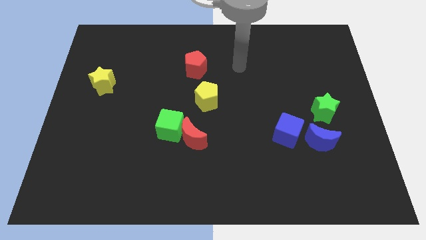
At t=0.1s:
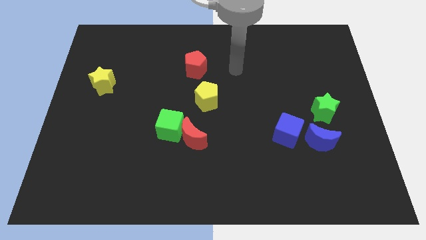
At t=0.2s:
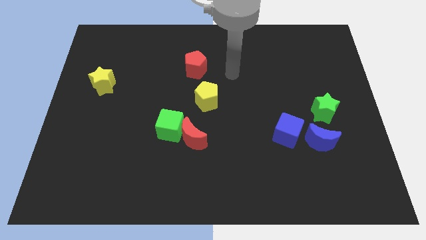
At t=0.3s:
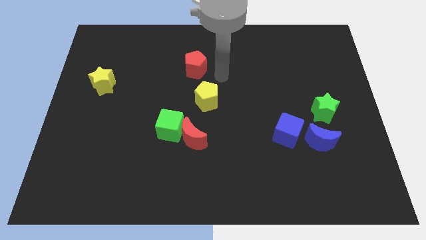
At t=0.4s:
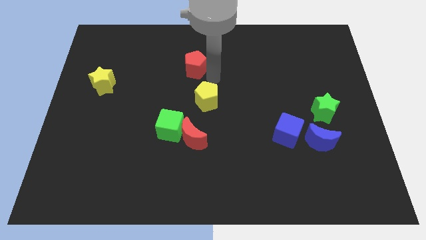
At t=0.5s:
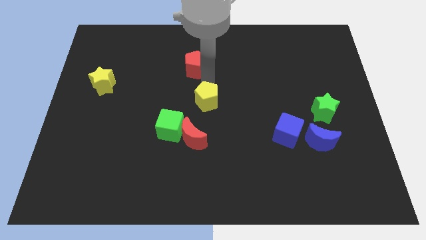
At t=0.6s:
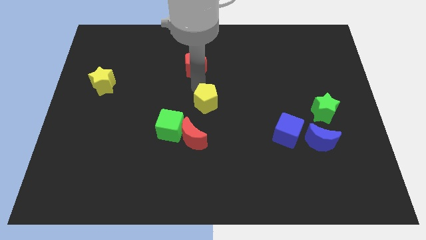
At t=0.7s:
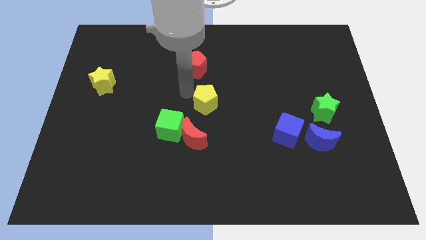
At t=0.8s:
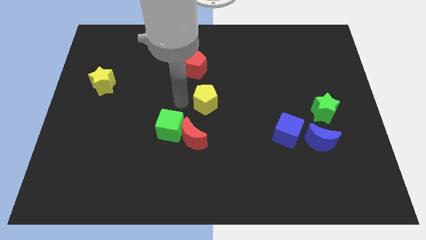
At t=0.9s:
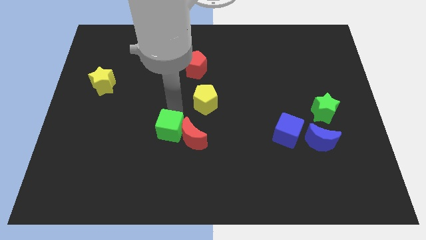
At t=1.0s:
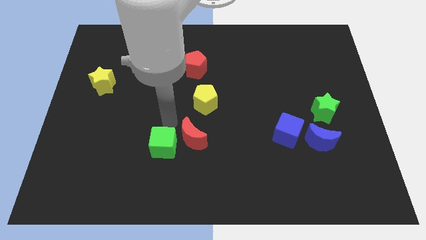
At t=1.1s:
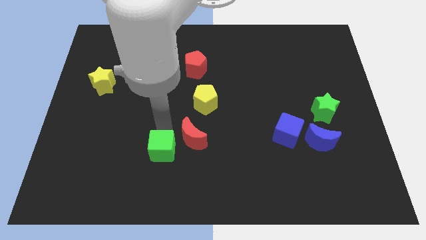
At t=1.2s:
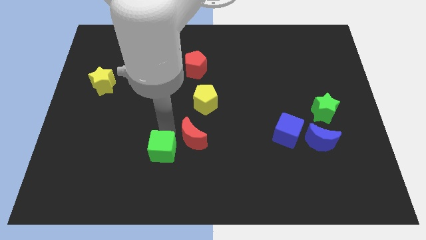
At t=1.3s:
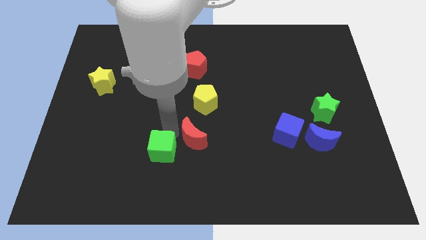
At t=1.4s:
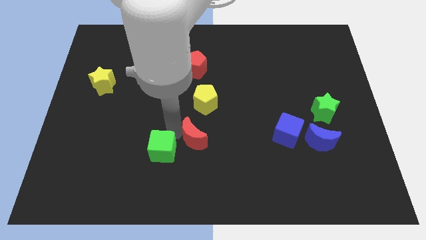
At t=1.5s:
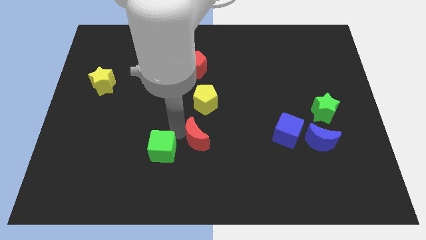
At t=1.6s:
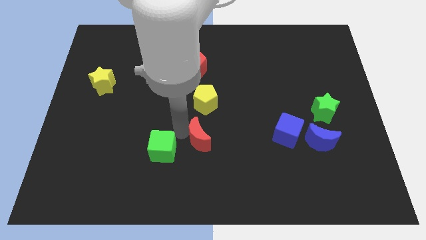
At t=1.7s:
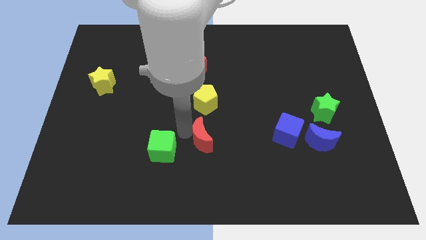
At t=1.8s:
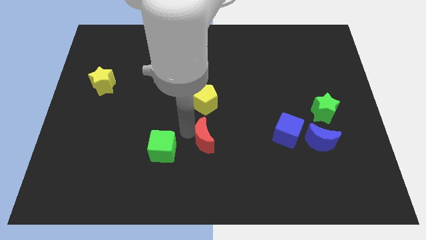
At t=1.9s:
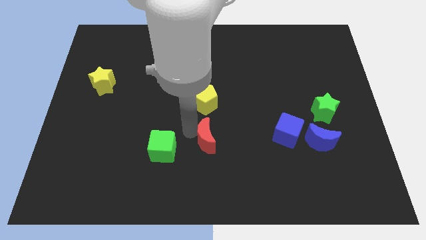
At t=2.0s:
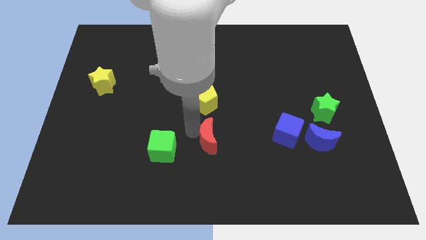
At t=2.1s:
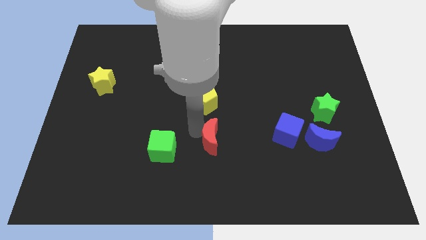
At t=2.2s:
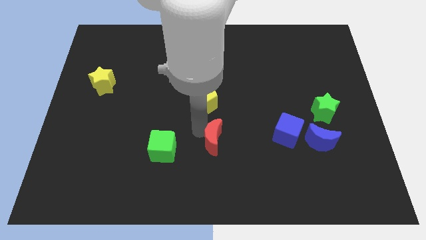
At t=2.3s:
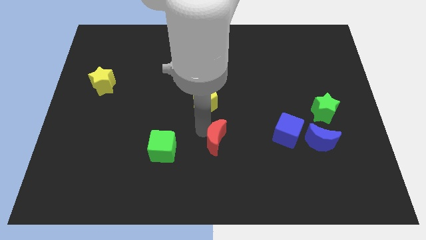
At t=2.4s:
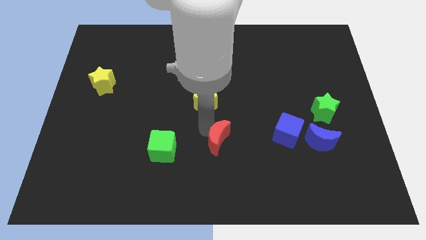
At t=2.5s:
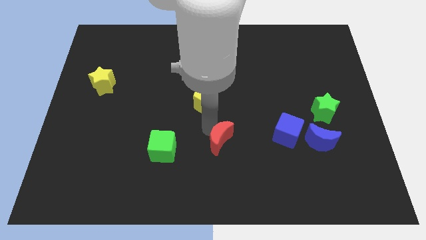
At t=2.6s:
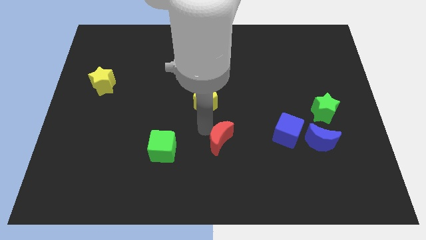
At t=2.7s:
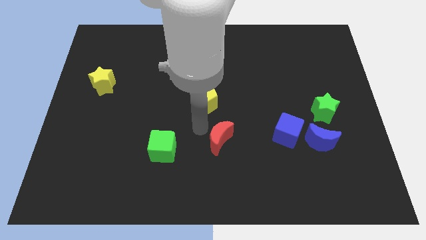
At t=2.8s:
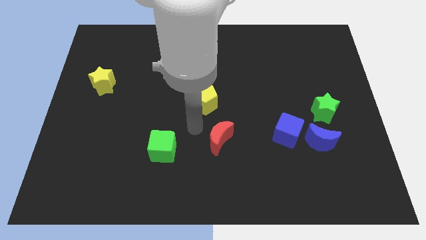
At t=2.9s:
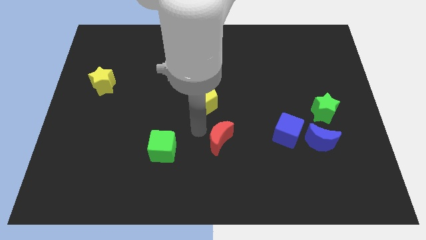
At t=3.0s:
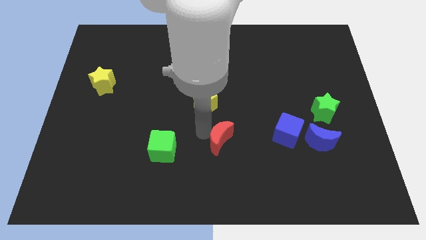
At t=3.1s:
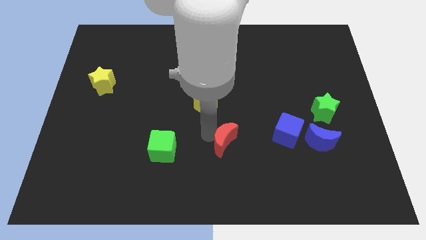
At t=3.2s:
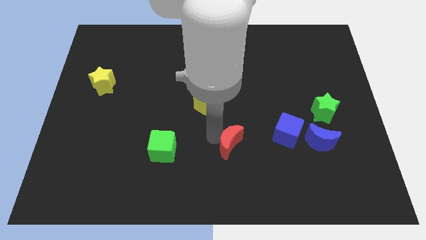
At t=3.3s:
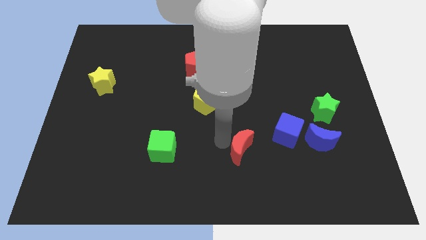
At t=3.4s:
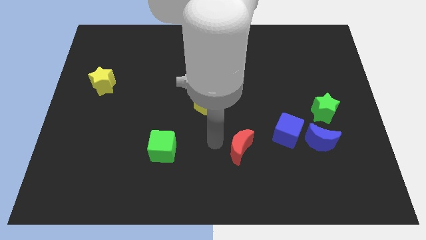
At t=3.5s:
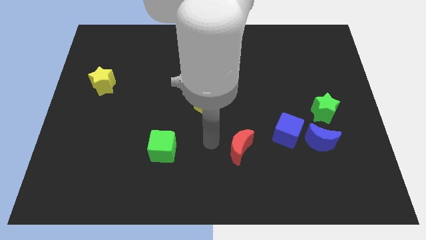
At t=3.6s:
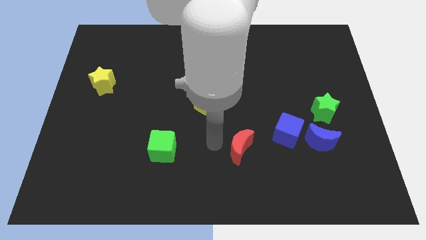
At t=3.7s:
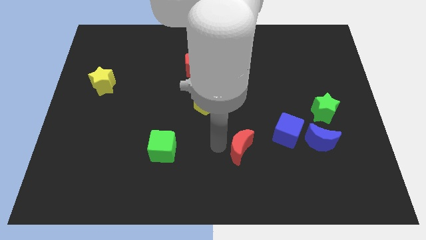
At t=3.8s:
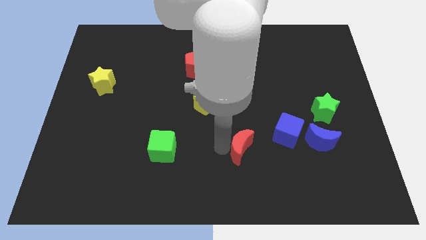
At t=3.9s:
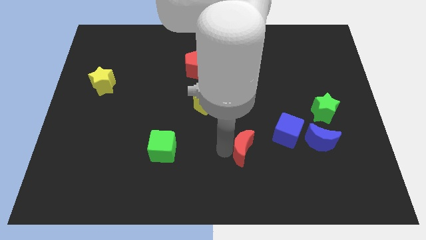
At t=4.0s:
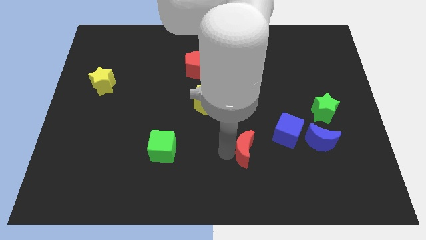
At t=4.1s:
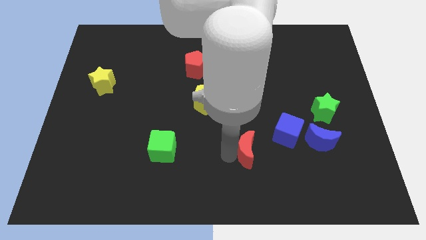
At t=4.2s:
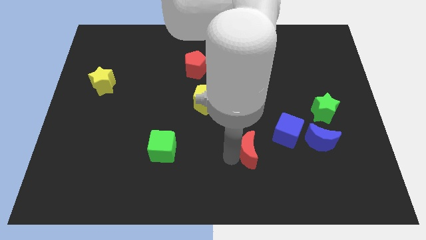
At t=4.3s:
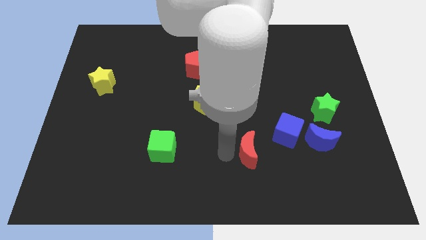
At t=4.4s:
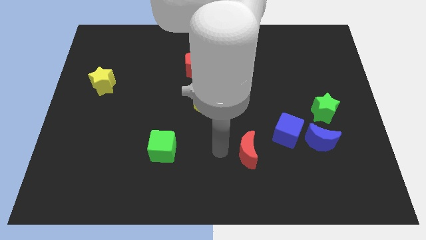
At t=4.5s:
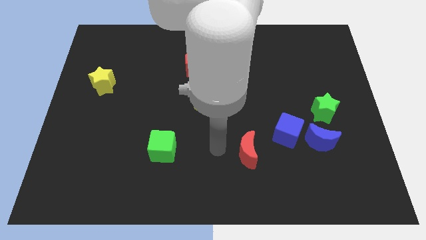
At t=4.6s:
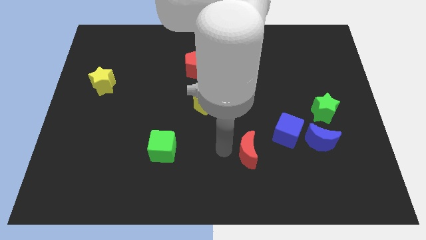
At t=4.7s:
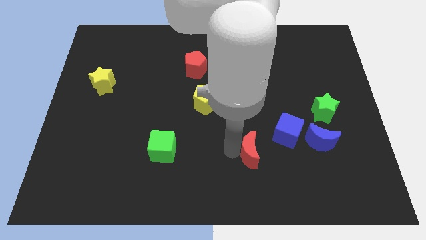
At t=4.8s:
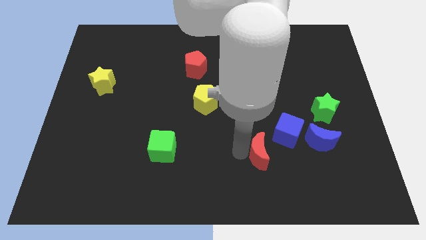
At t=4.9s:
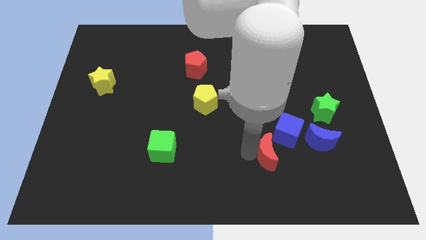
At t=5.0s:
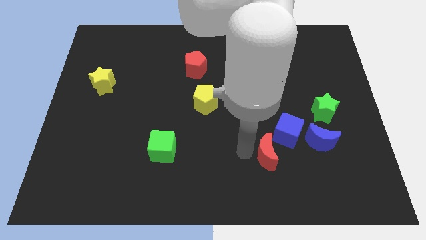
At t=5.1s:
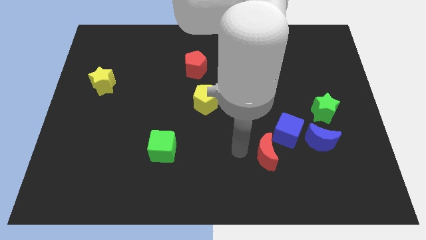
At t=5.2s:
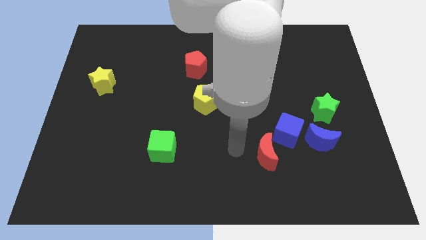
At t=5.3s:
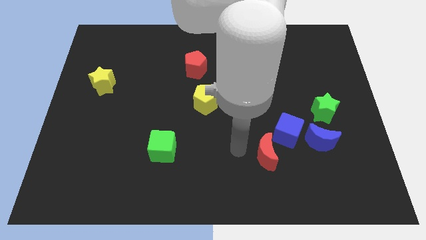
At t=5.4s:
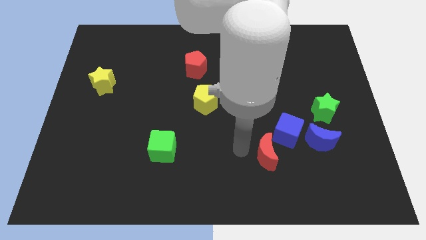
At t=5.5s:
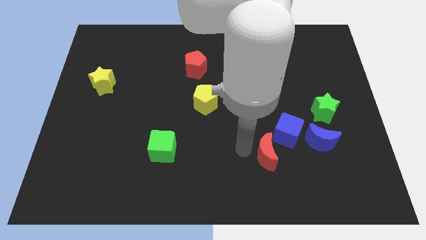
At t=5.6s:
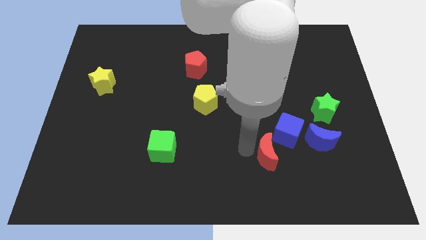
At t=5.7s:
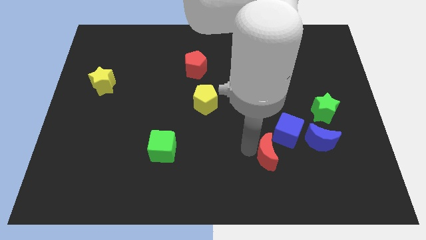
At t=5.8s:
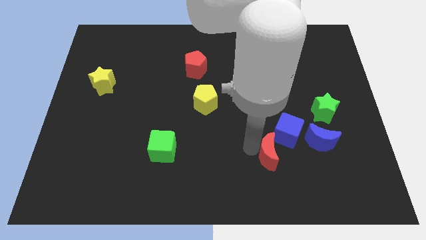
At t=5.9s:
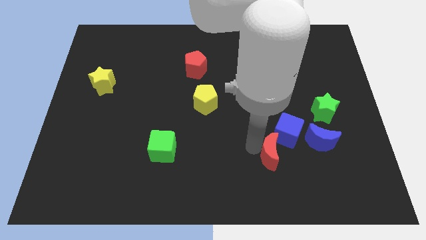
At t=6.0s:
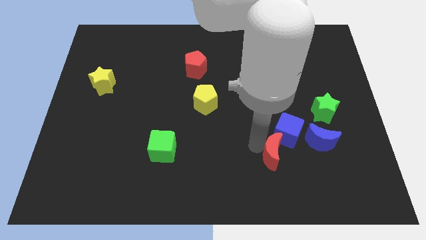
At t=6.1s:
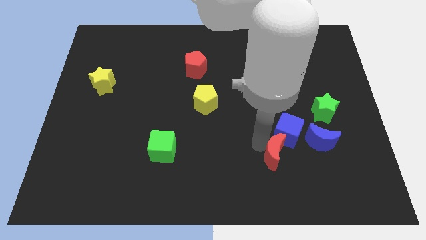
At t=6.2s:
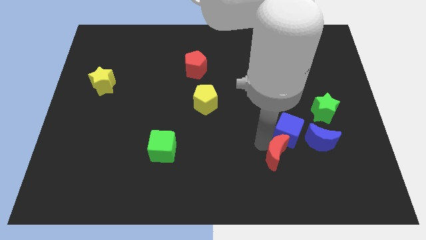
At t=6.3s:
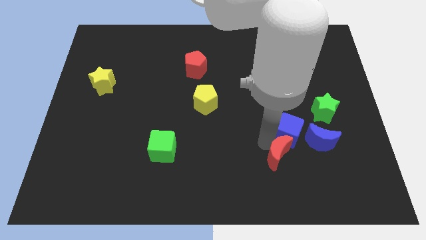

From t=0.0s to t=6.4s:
move the red moon diagonally down and to the left of the blue moon

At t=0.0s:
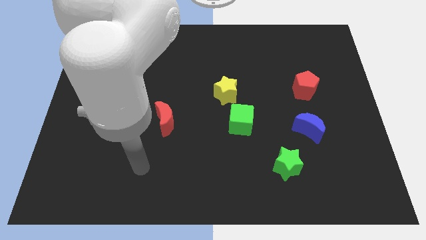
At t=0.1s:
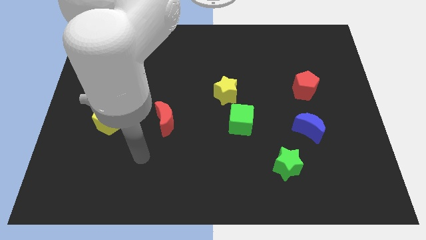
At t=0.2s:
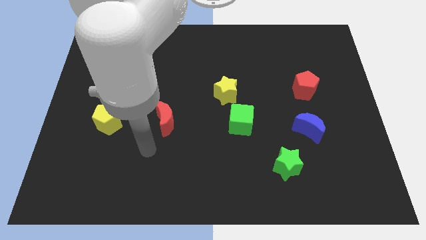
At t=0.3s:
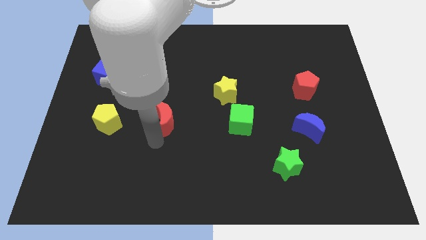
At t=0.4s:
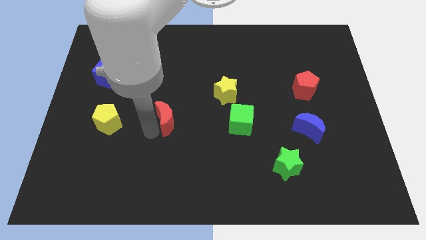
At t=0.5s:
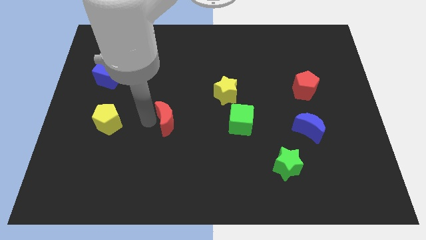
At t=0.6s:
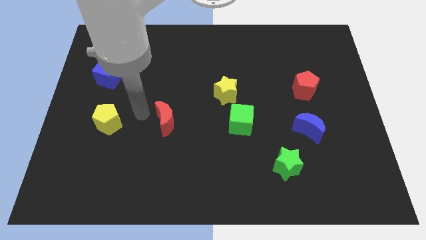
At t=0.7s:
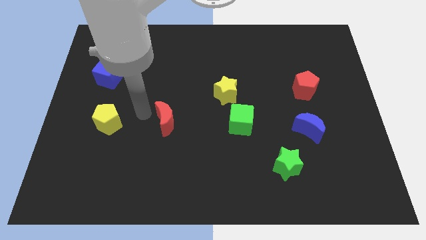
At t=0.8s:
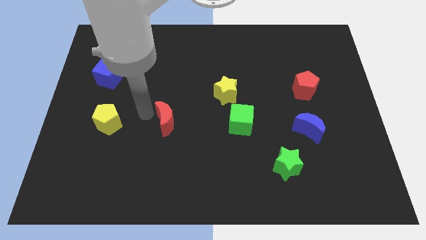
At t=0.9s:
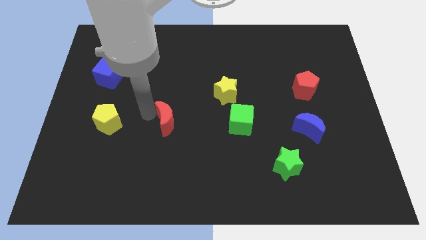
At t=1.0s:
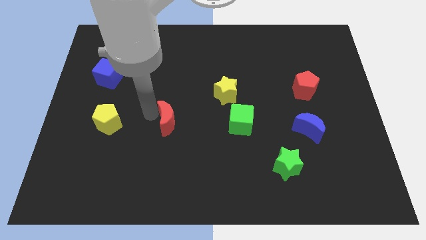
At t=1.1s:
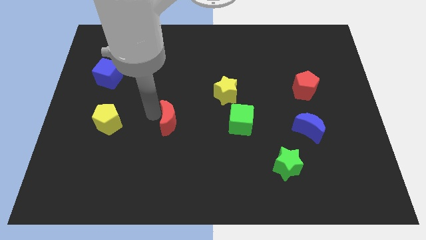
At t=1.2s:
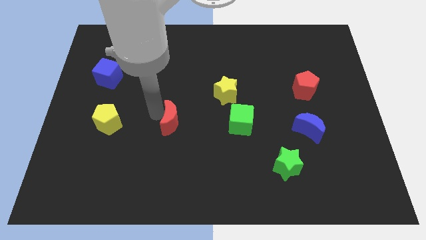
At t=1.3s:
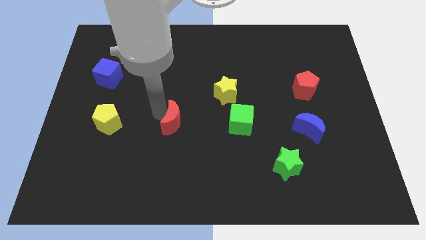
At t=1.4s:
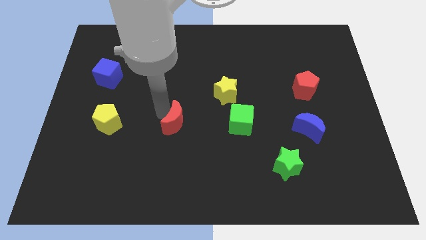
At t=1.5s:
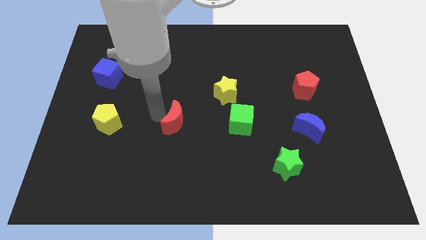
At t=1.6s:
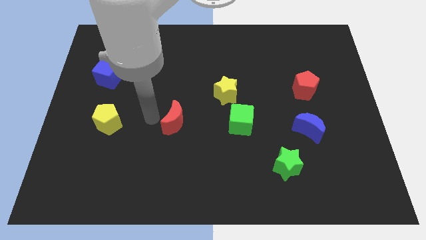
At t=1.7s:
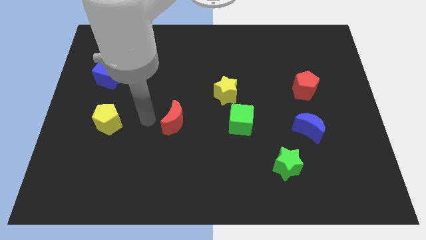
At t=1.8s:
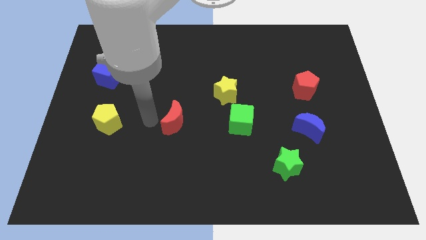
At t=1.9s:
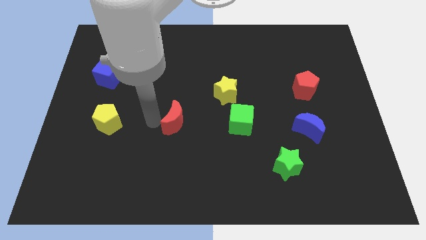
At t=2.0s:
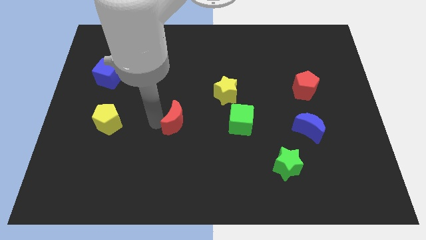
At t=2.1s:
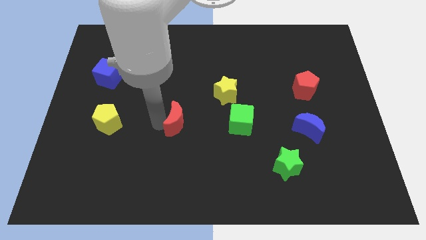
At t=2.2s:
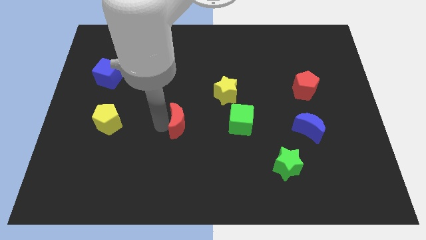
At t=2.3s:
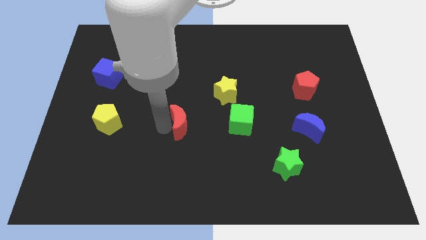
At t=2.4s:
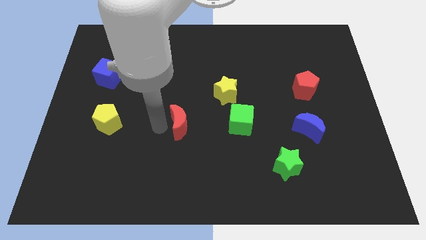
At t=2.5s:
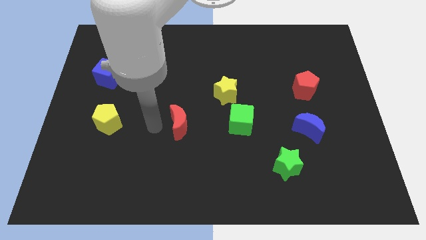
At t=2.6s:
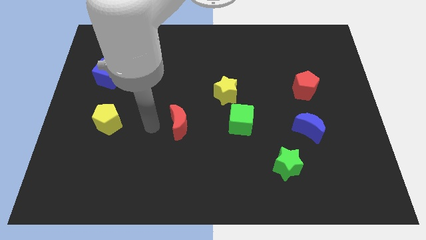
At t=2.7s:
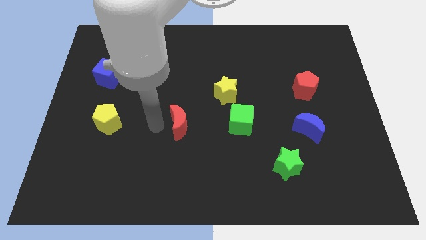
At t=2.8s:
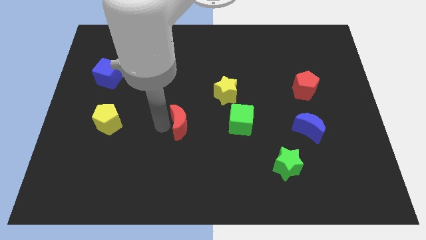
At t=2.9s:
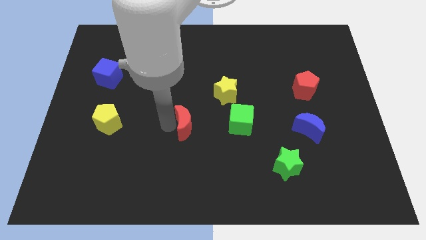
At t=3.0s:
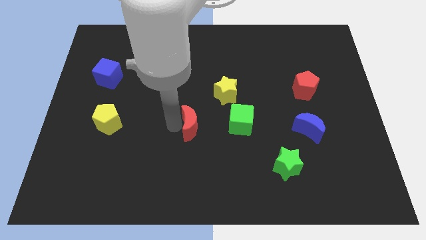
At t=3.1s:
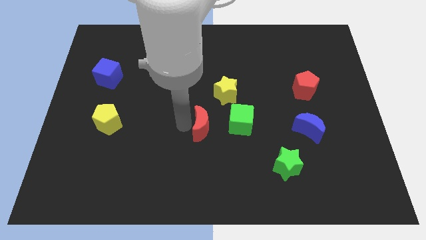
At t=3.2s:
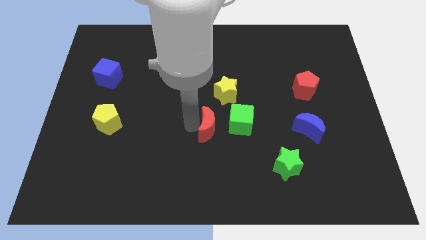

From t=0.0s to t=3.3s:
slide the red moon below the yellow star
